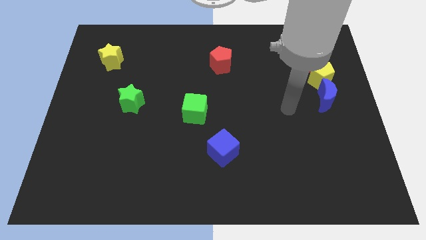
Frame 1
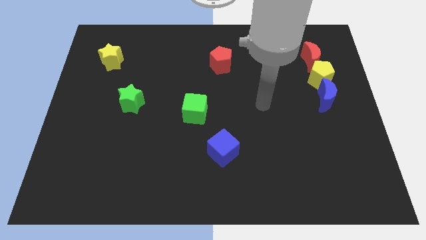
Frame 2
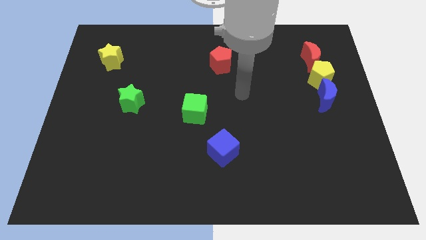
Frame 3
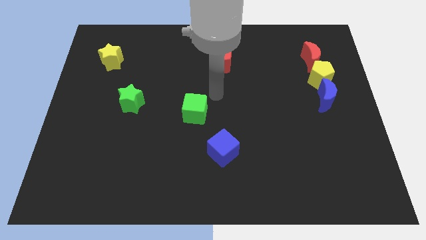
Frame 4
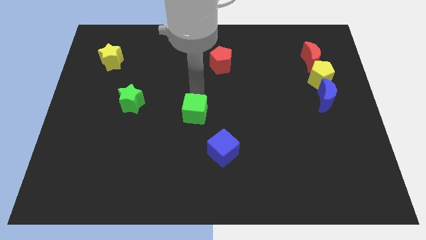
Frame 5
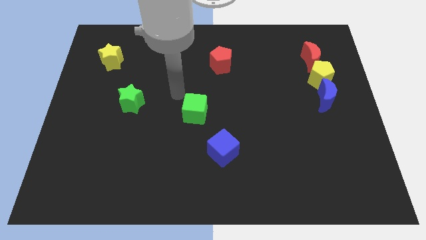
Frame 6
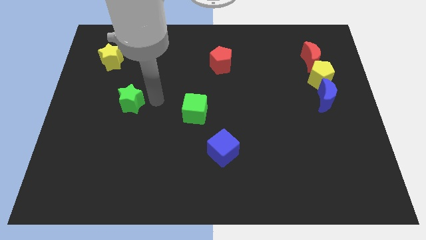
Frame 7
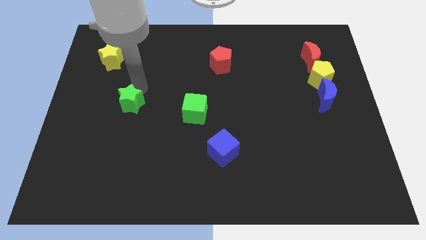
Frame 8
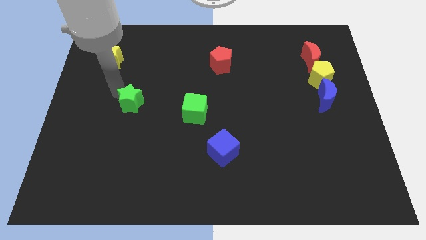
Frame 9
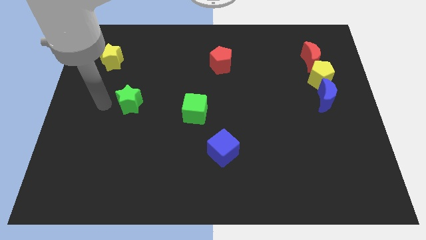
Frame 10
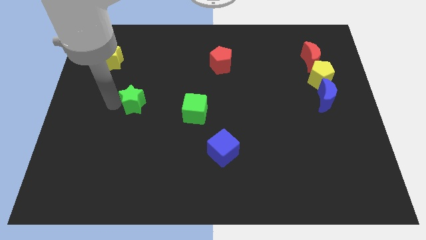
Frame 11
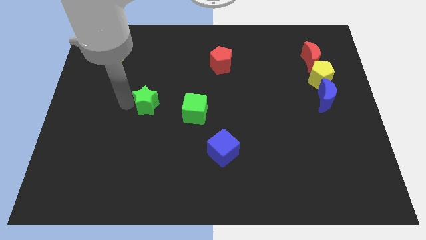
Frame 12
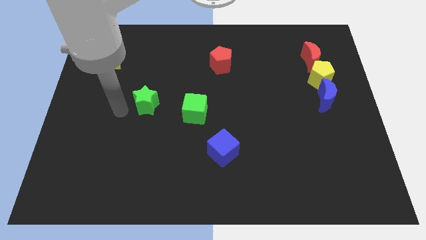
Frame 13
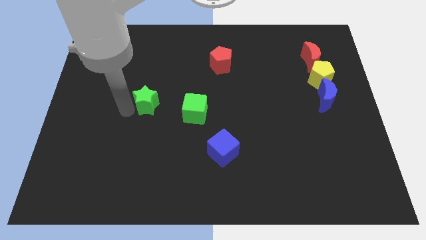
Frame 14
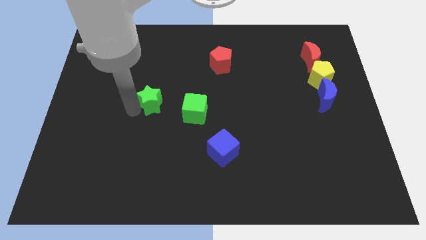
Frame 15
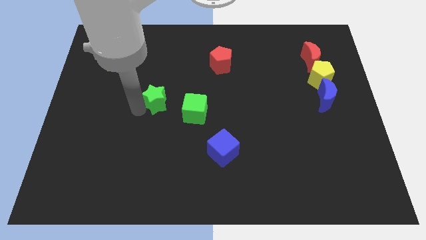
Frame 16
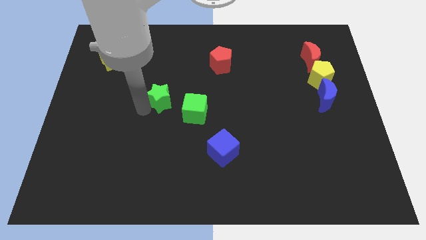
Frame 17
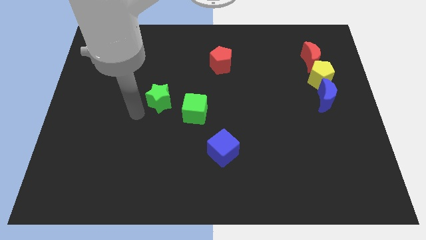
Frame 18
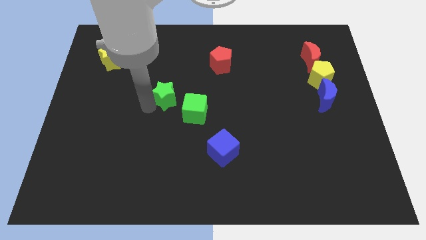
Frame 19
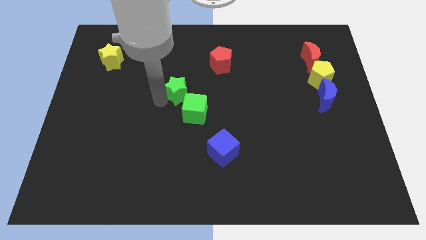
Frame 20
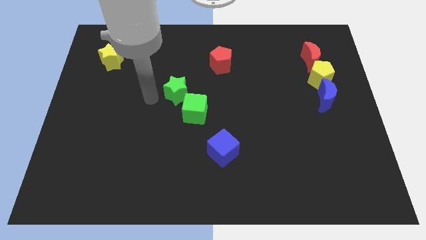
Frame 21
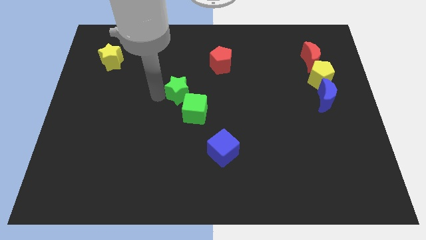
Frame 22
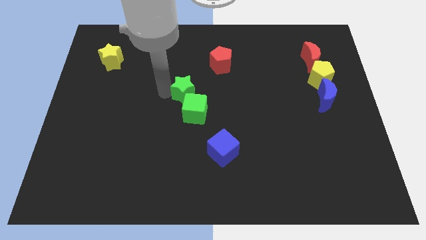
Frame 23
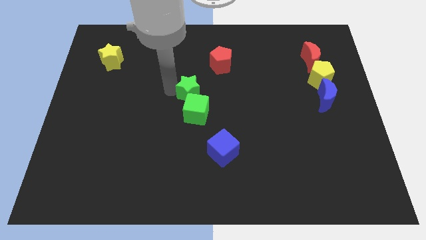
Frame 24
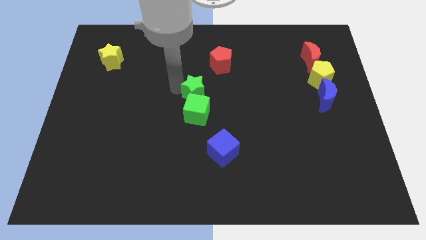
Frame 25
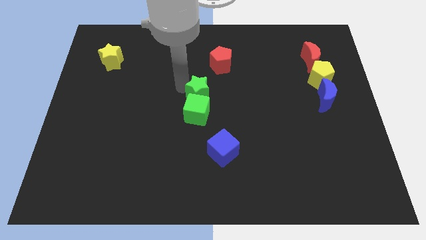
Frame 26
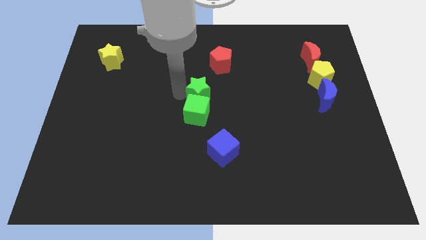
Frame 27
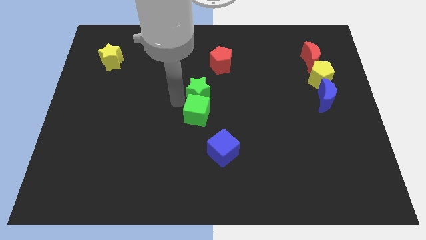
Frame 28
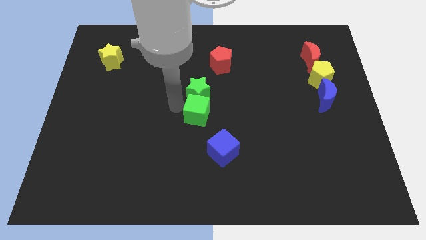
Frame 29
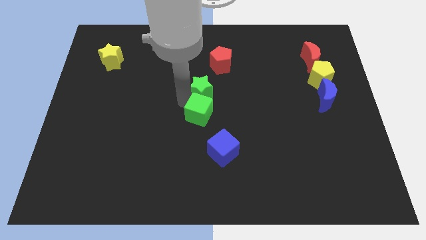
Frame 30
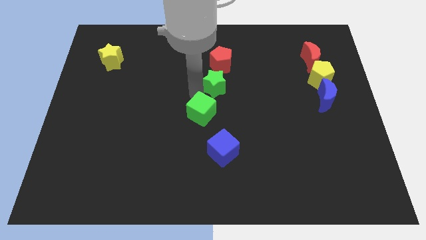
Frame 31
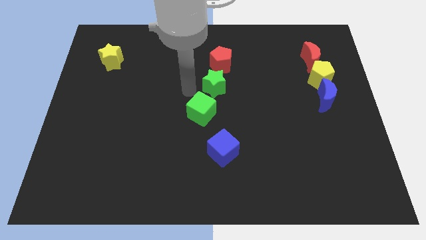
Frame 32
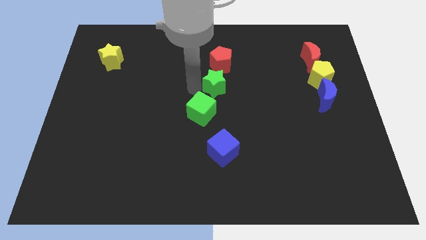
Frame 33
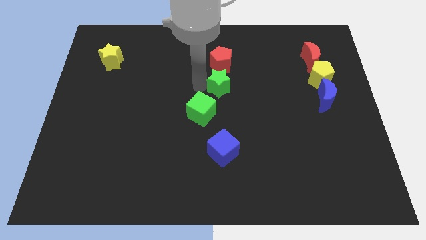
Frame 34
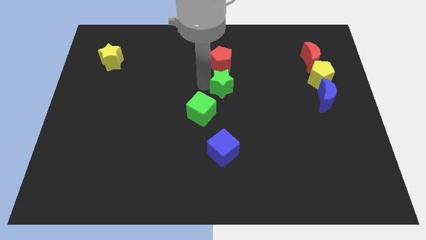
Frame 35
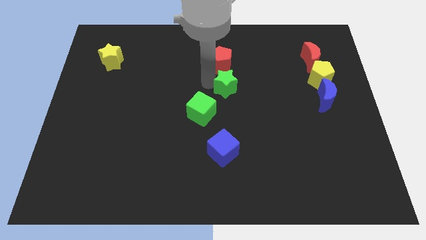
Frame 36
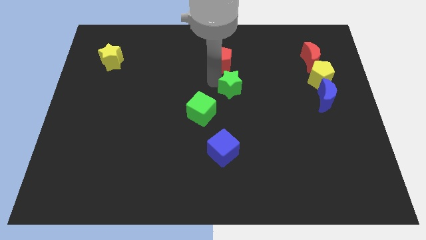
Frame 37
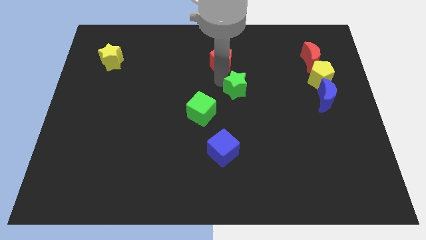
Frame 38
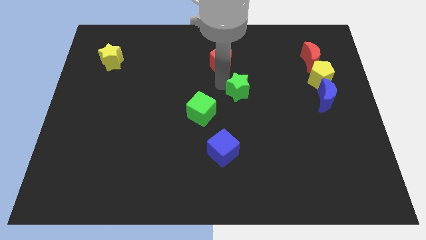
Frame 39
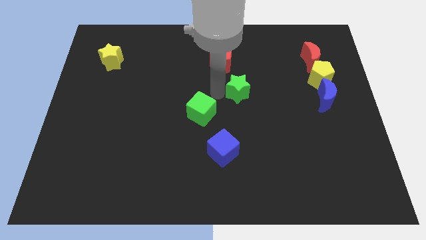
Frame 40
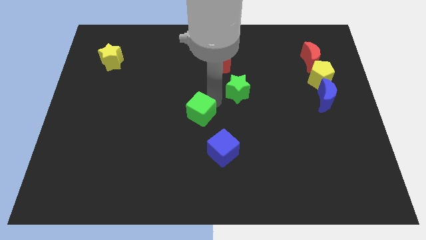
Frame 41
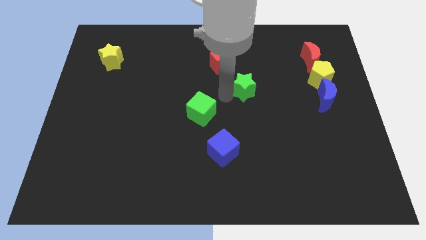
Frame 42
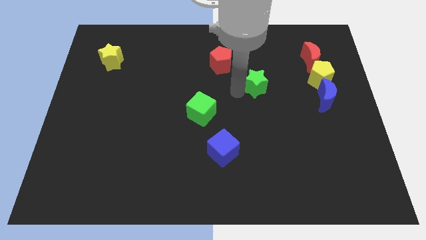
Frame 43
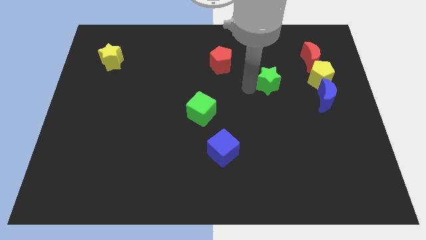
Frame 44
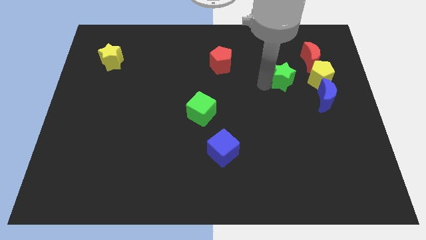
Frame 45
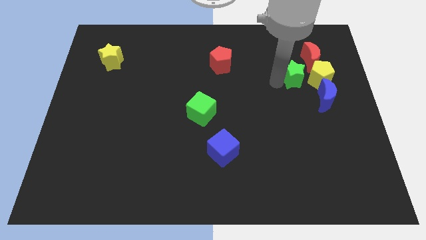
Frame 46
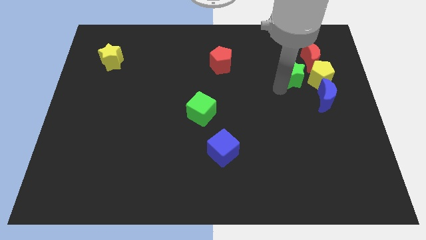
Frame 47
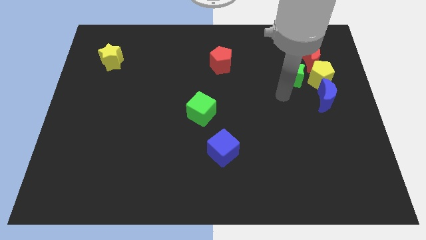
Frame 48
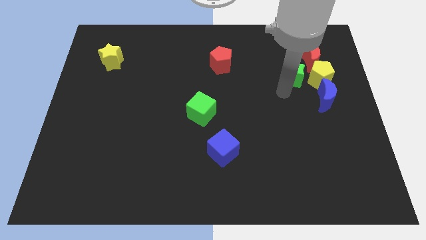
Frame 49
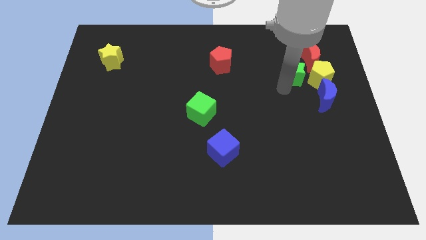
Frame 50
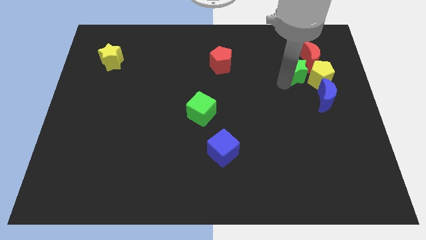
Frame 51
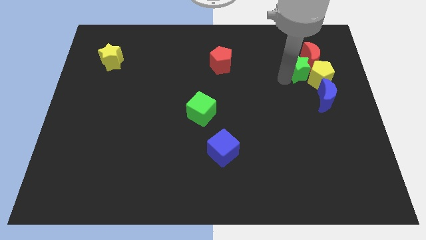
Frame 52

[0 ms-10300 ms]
push the green star to the red moon

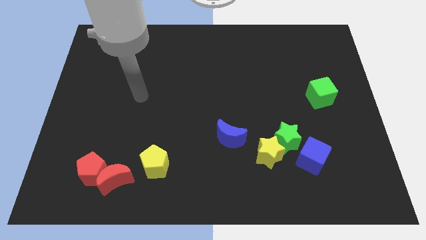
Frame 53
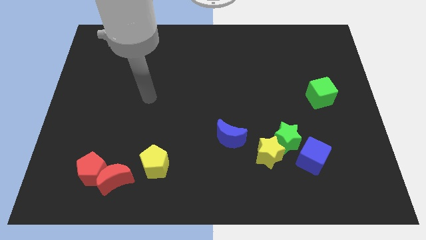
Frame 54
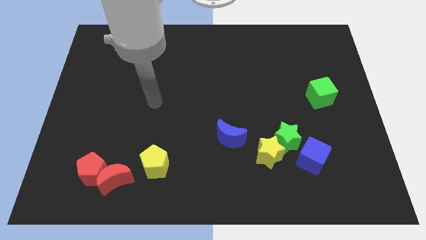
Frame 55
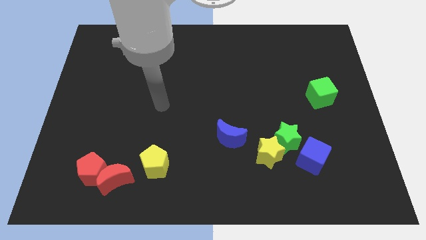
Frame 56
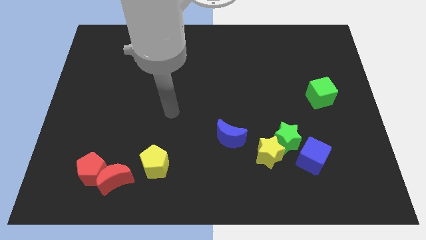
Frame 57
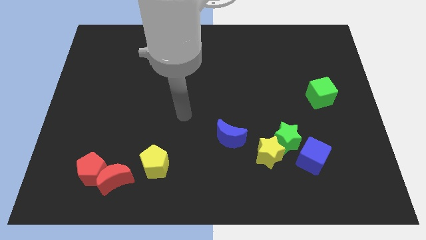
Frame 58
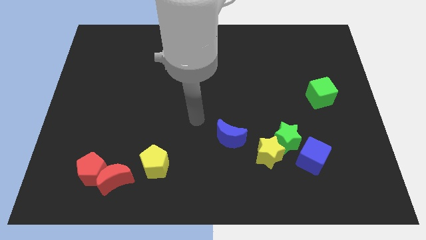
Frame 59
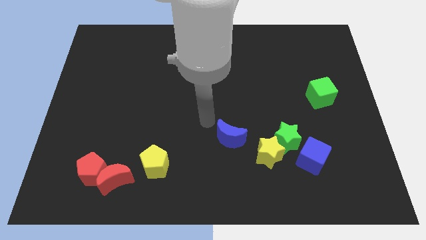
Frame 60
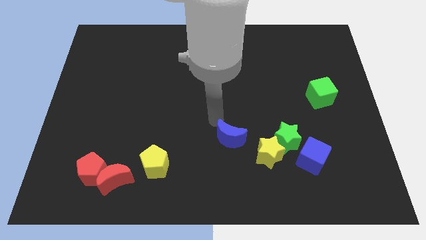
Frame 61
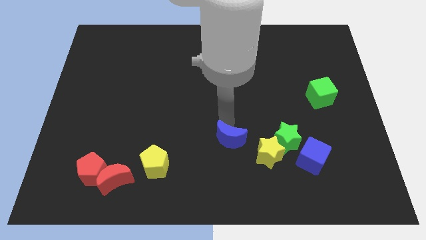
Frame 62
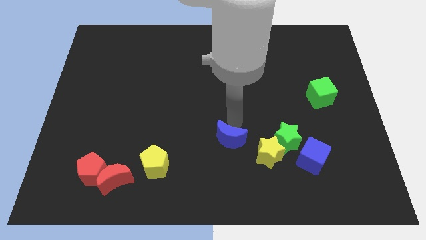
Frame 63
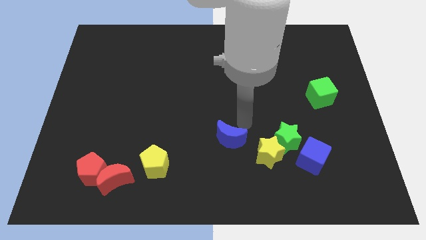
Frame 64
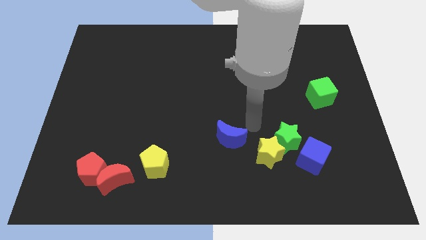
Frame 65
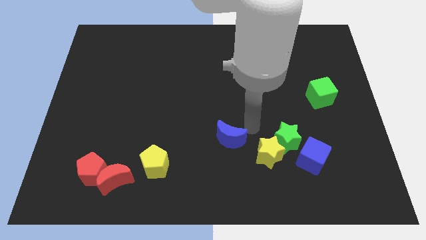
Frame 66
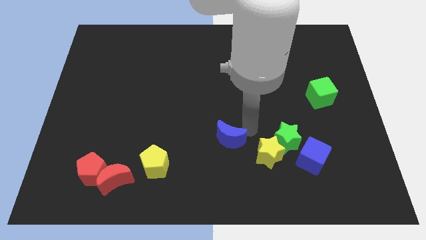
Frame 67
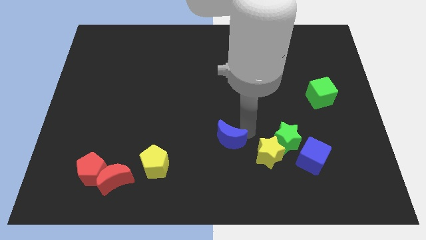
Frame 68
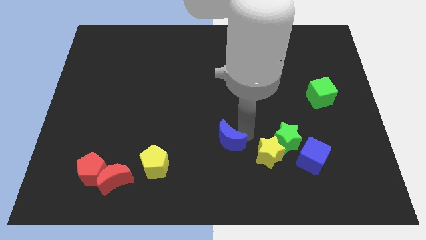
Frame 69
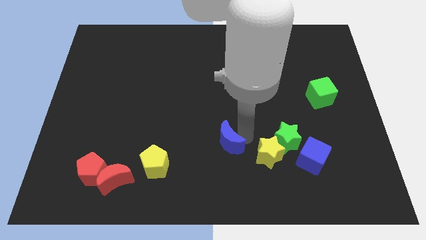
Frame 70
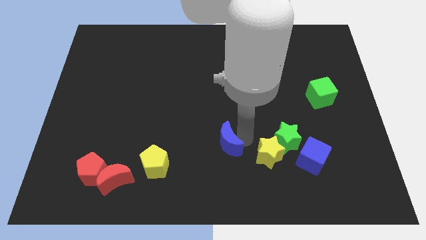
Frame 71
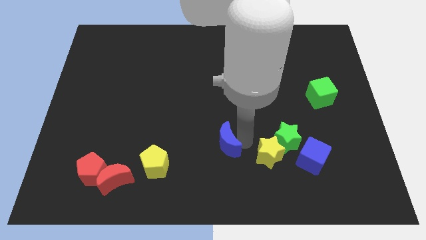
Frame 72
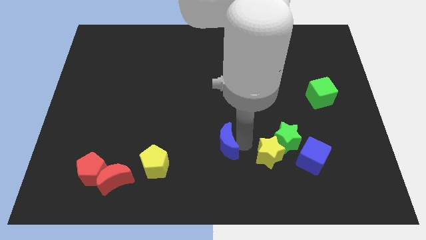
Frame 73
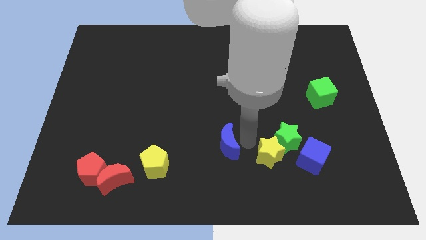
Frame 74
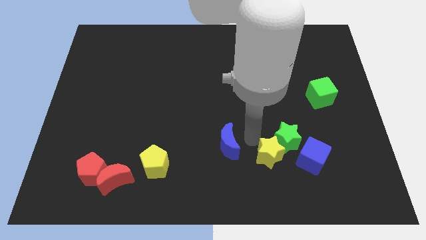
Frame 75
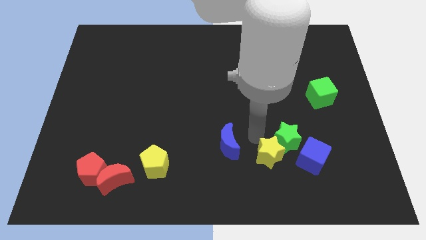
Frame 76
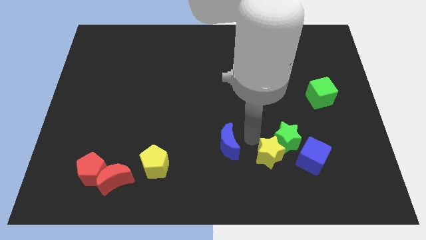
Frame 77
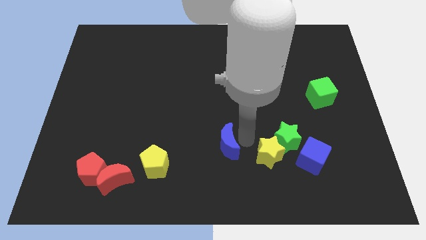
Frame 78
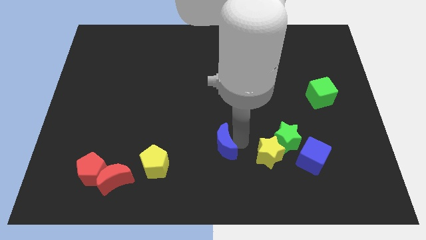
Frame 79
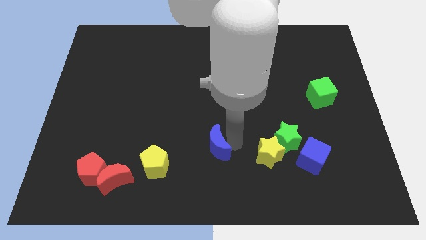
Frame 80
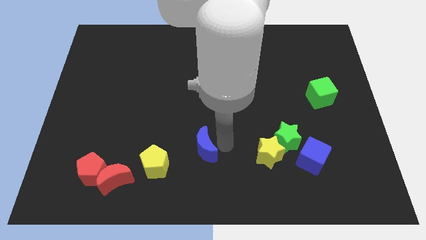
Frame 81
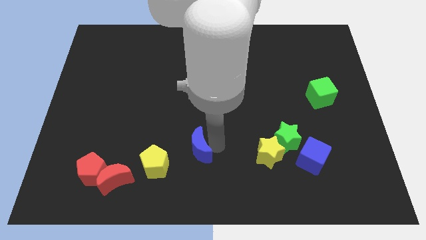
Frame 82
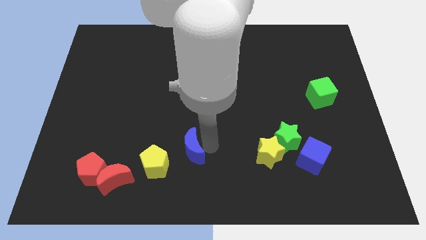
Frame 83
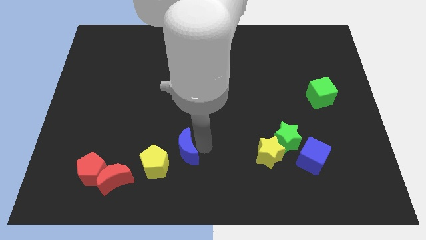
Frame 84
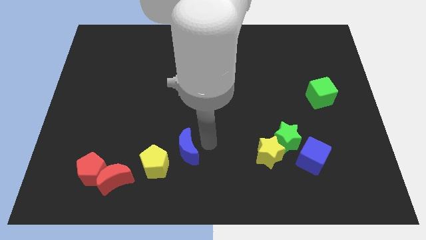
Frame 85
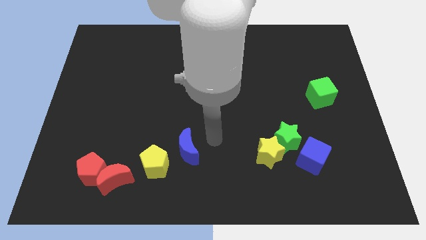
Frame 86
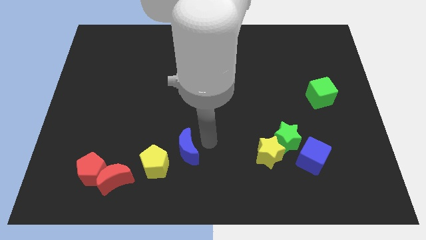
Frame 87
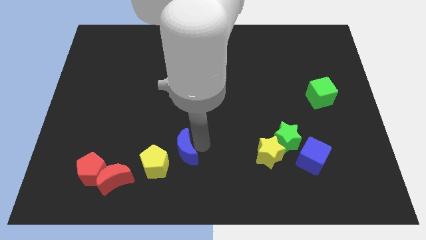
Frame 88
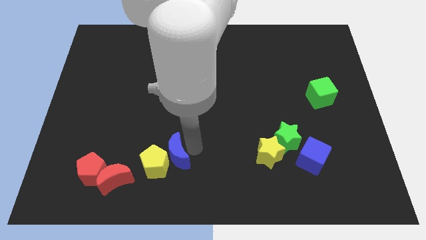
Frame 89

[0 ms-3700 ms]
move the blue moon next to the yellow pentagon
